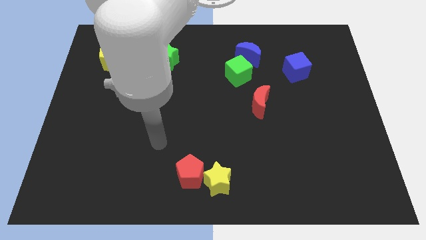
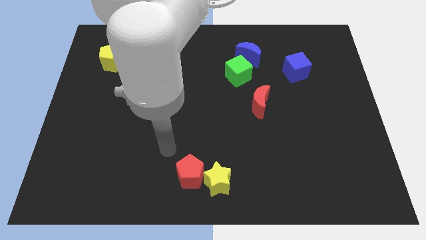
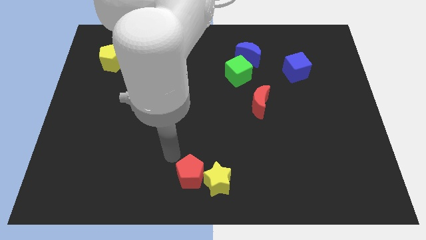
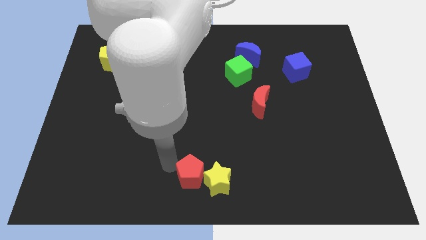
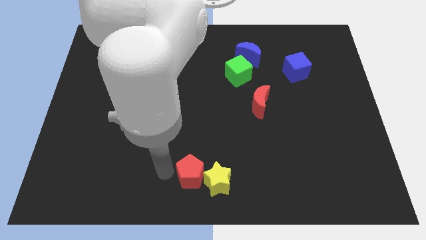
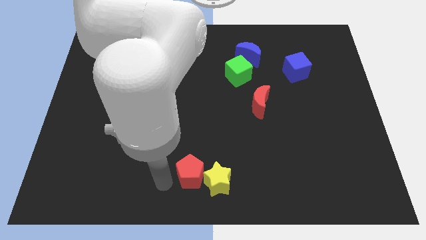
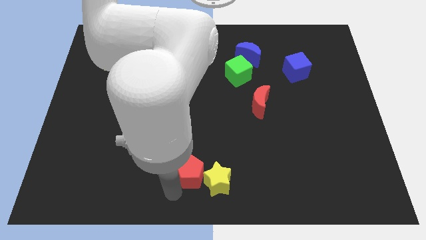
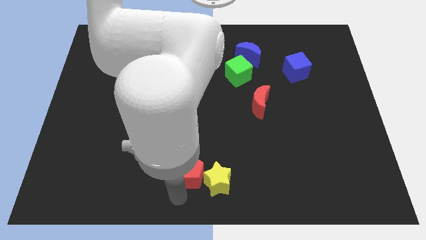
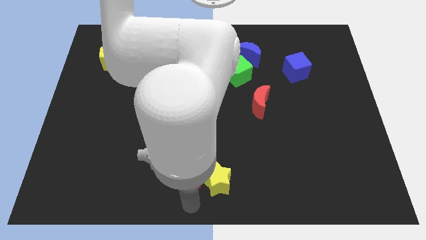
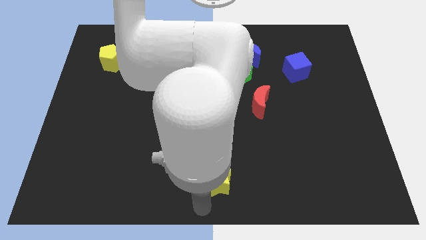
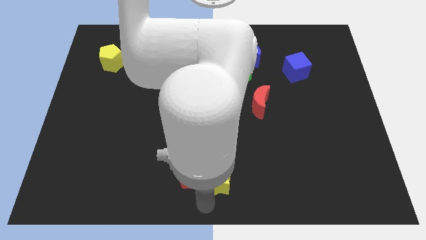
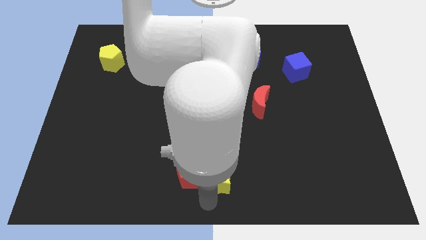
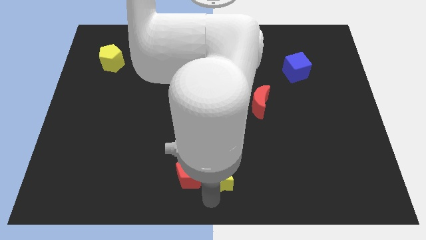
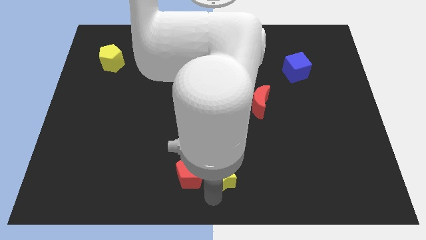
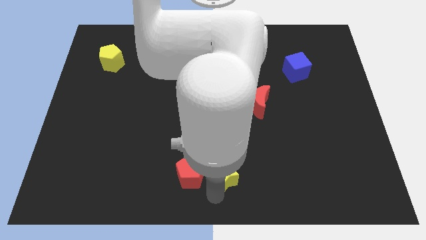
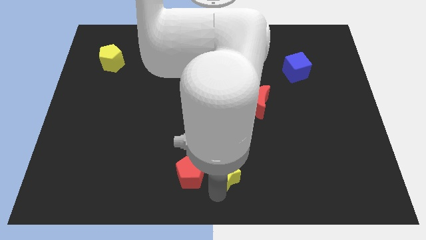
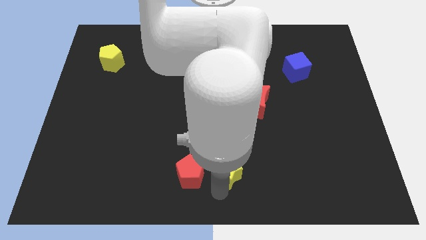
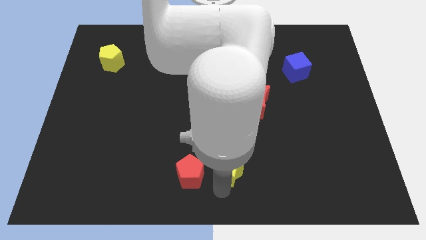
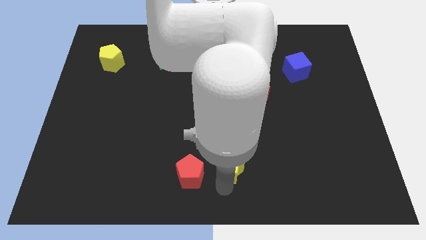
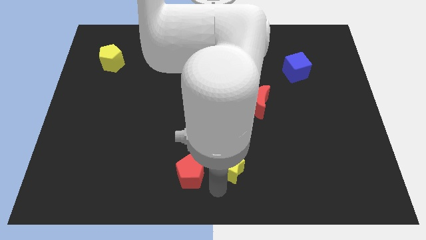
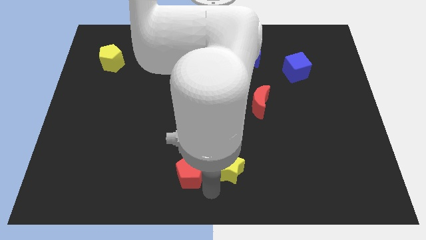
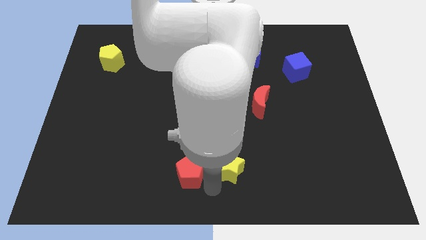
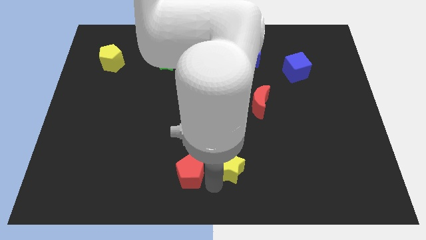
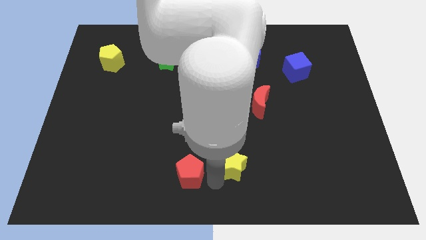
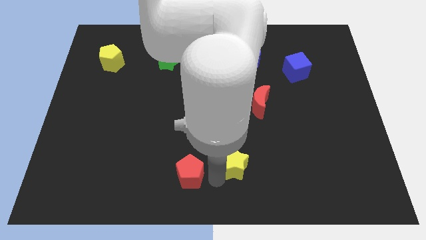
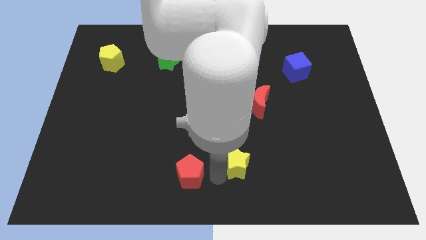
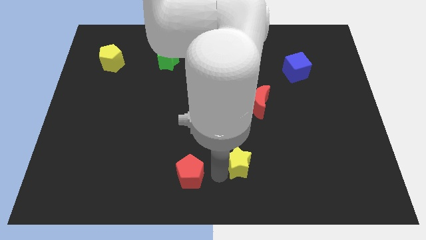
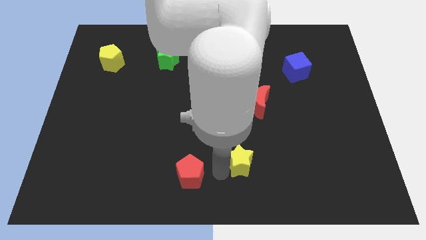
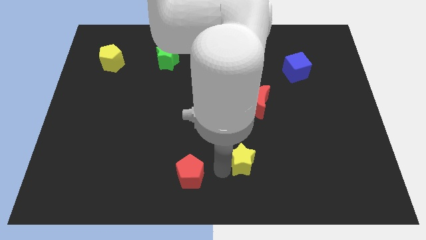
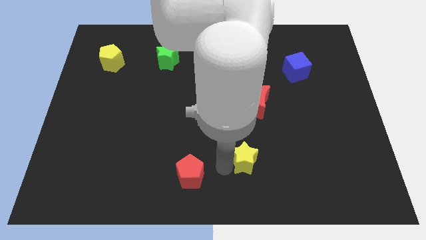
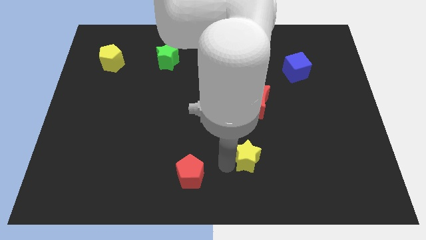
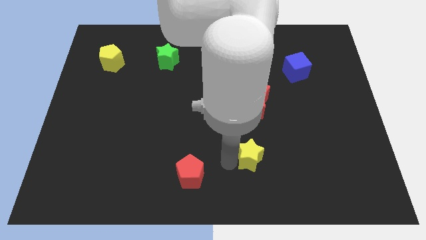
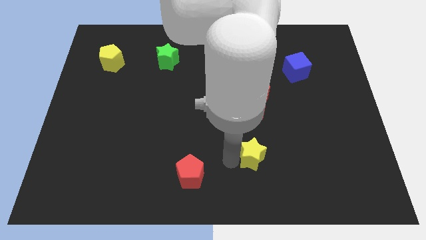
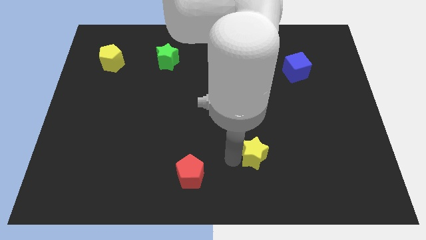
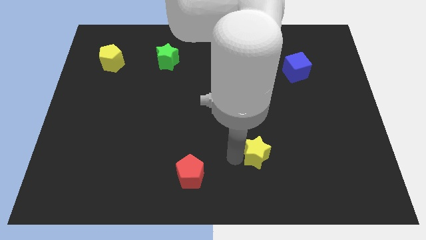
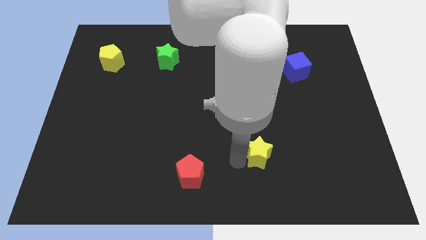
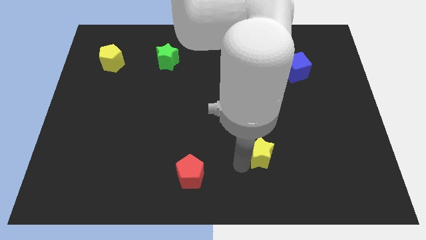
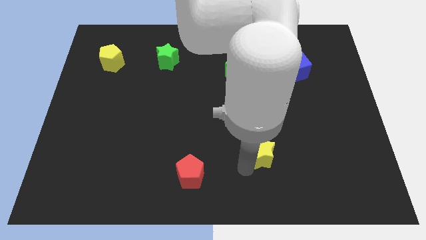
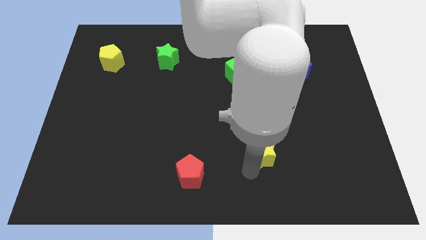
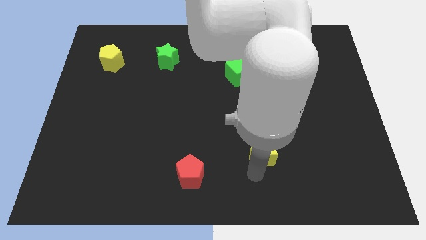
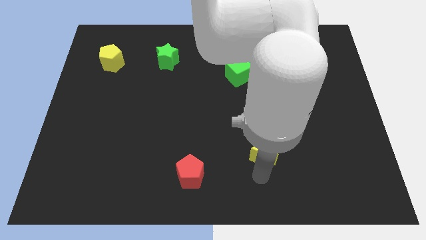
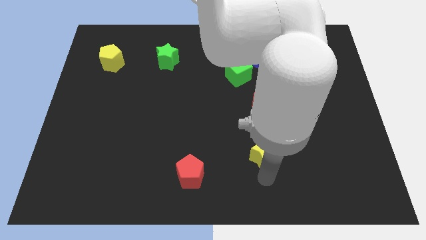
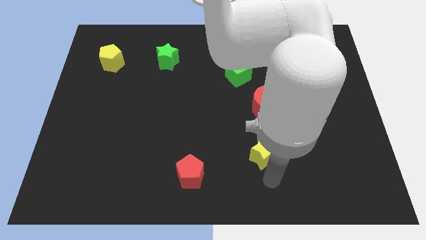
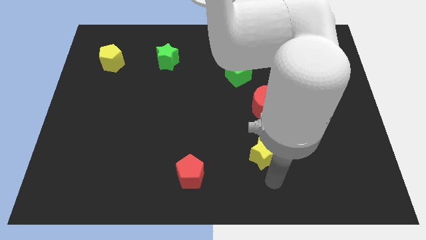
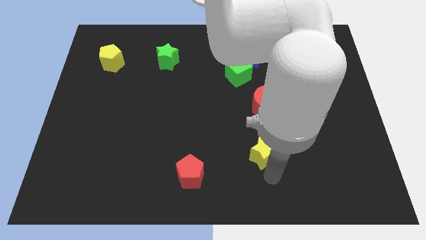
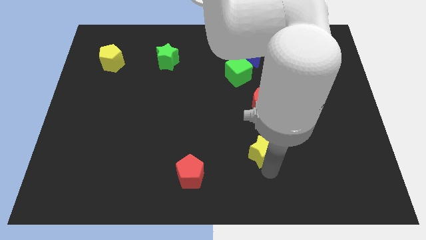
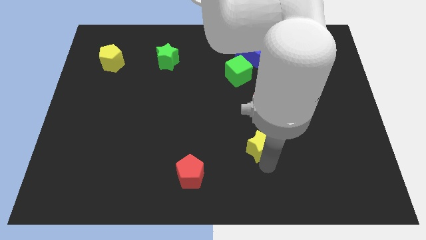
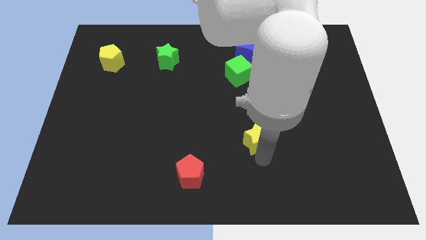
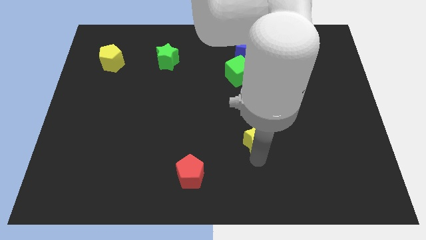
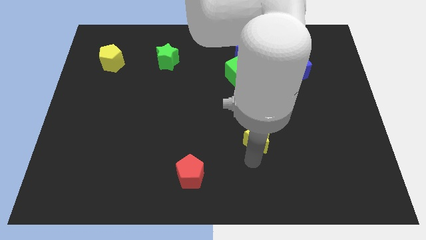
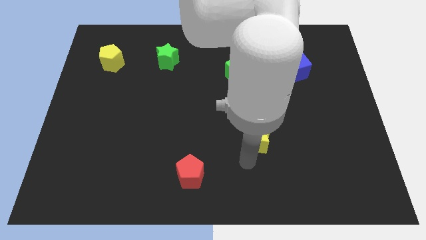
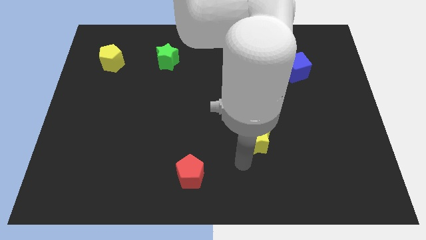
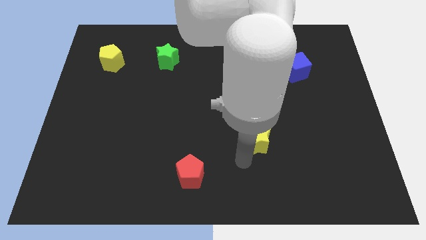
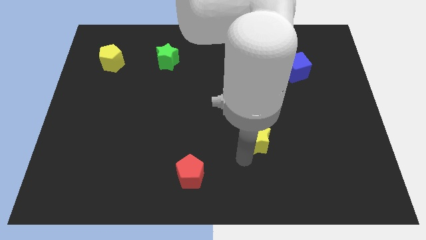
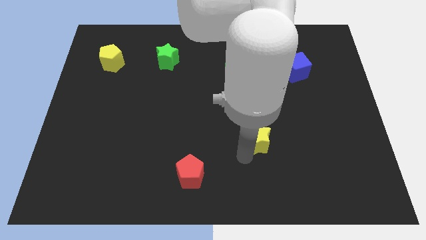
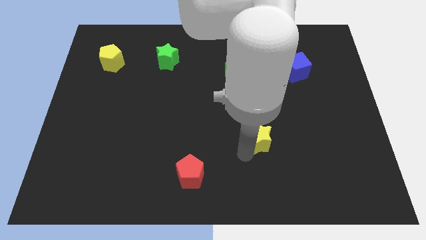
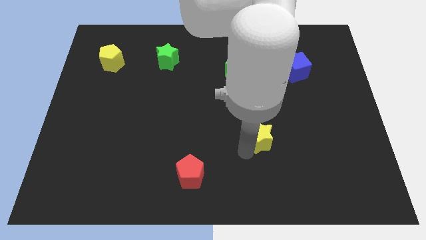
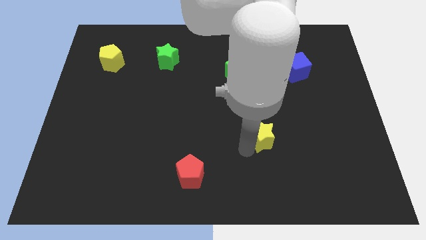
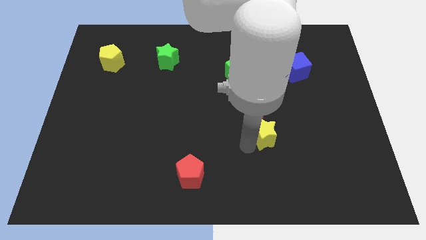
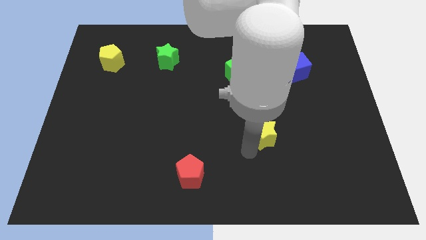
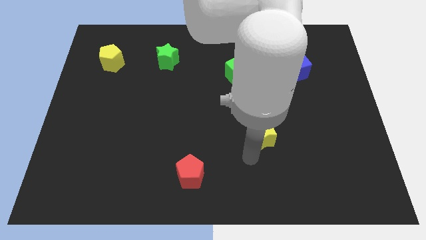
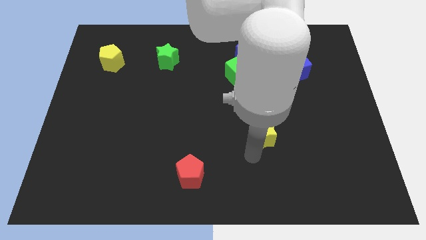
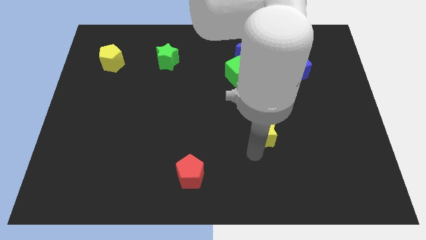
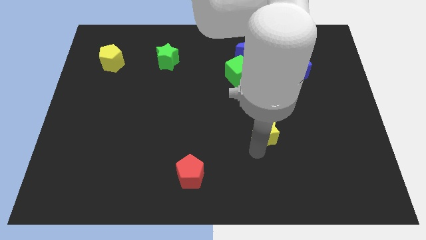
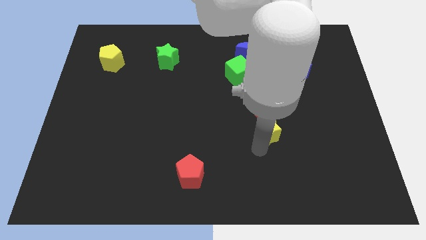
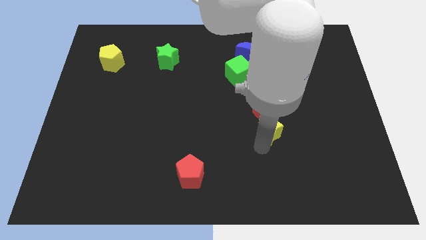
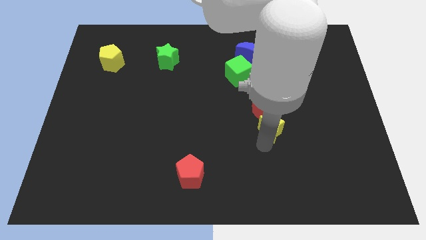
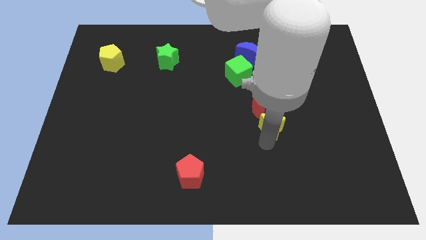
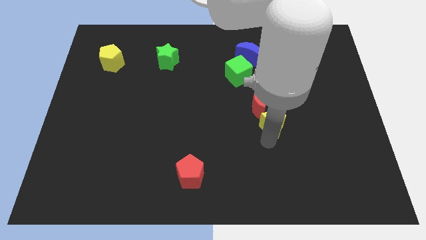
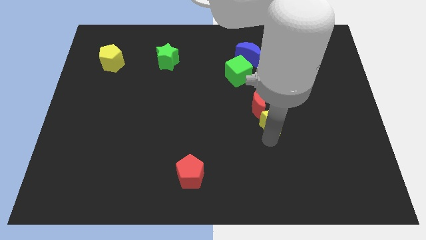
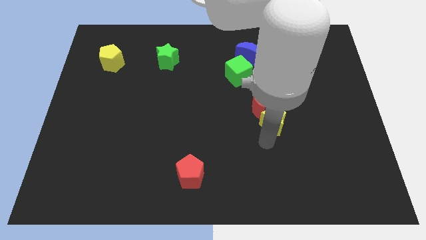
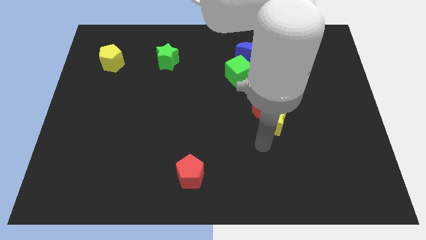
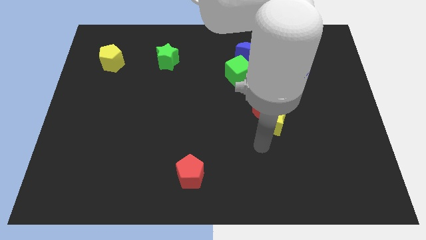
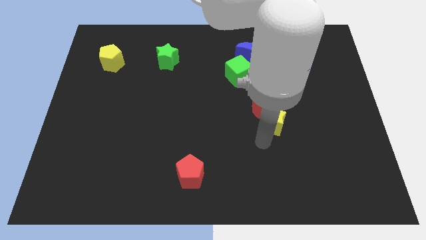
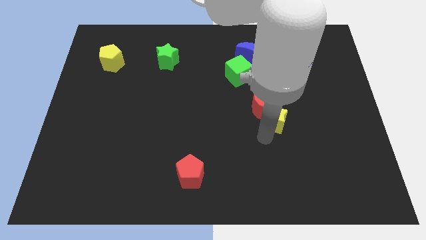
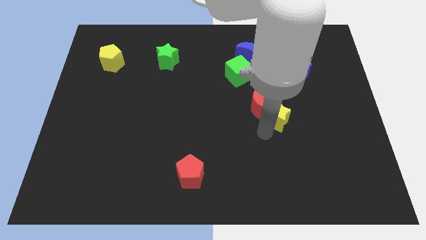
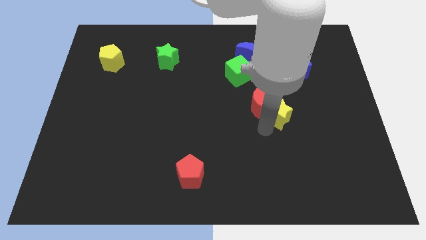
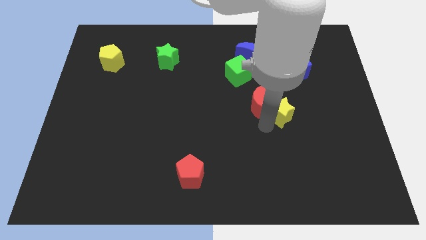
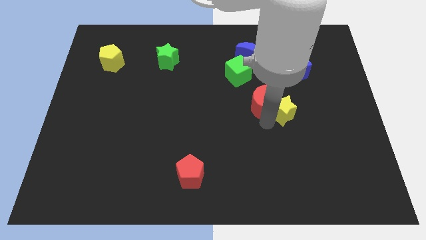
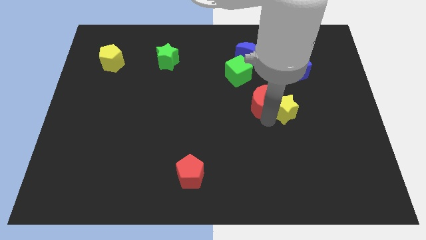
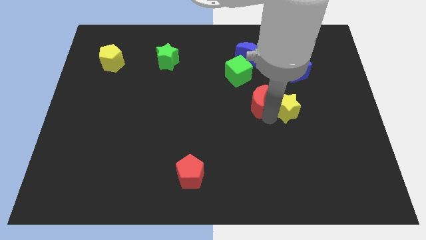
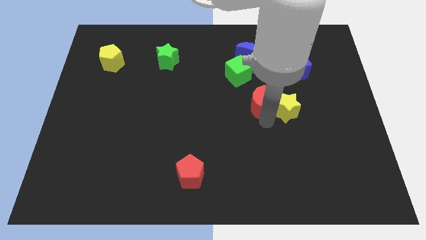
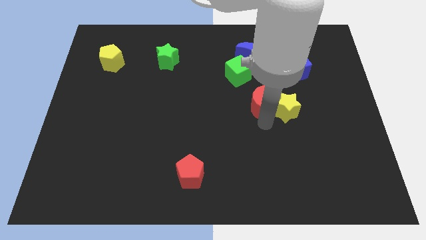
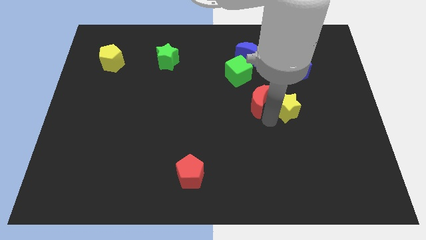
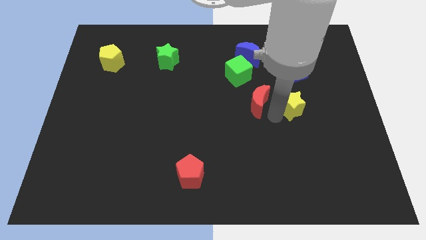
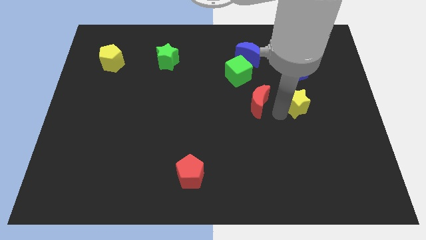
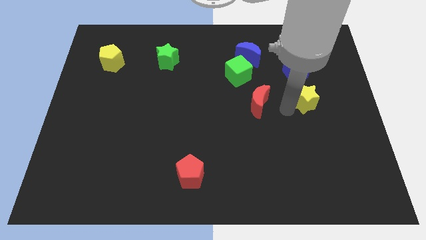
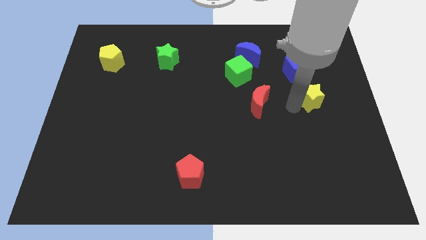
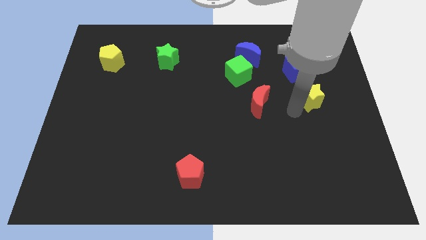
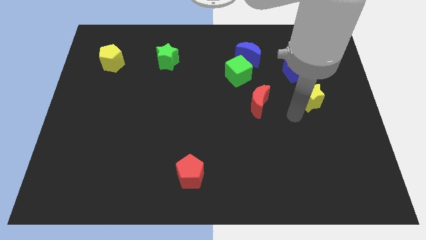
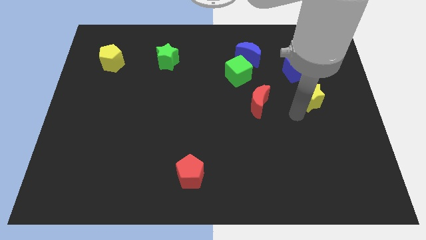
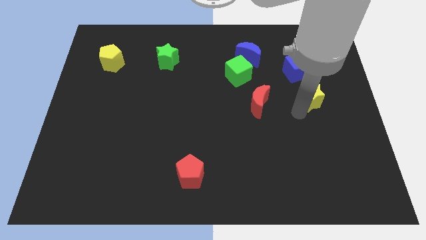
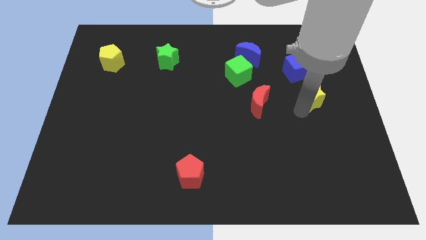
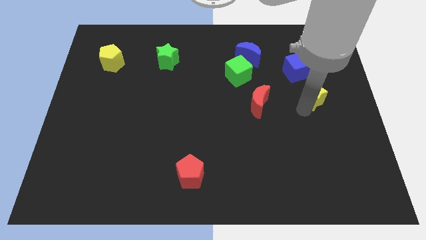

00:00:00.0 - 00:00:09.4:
move the yellow star to the bottom right of the blue cube
